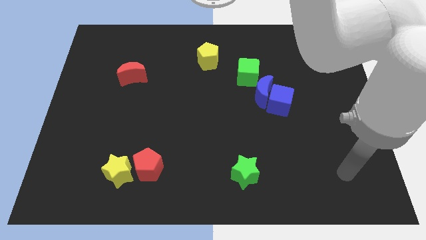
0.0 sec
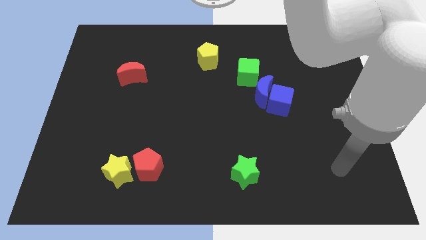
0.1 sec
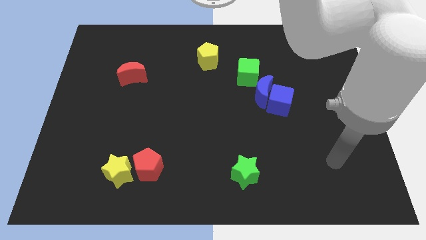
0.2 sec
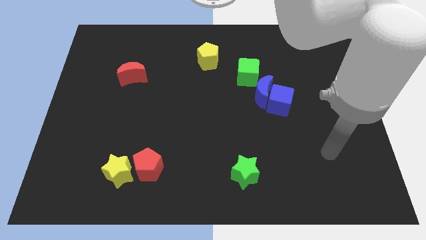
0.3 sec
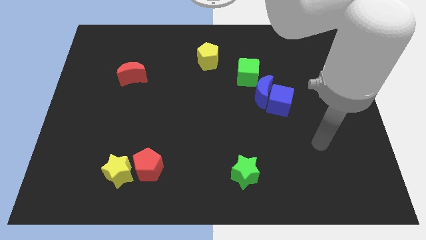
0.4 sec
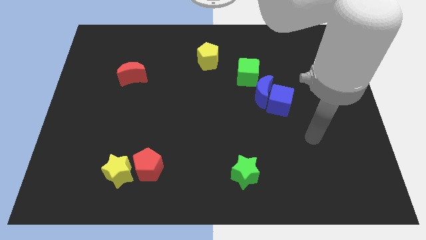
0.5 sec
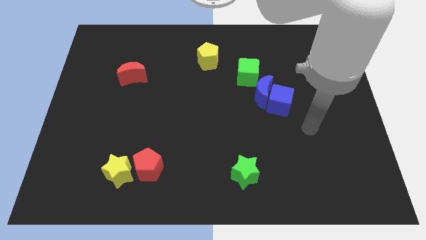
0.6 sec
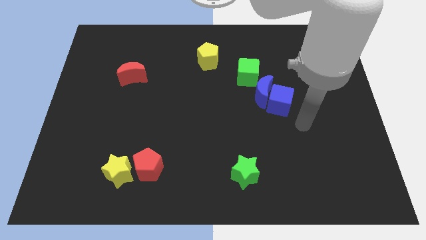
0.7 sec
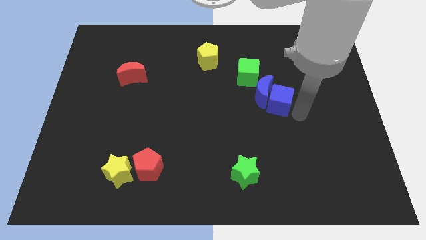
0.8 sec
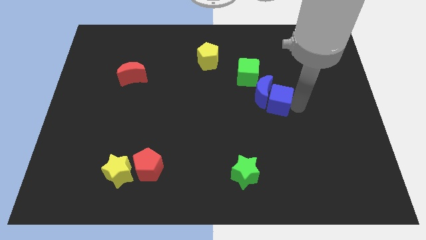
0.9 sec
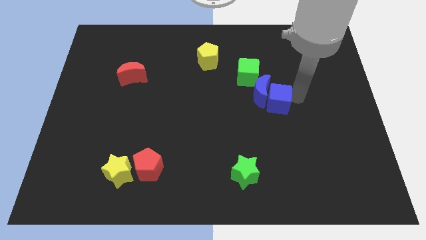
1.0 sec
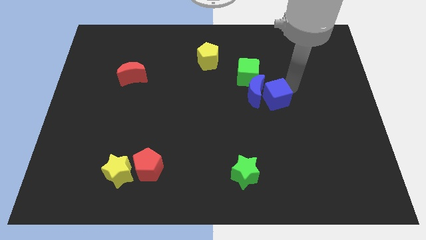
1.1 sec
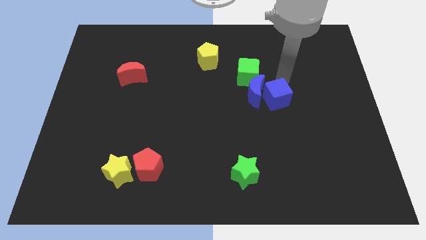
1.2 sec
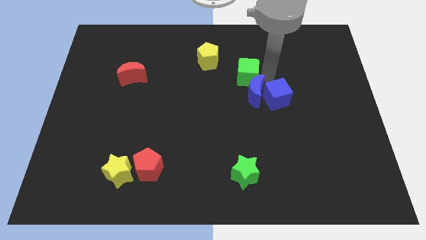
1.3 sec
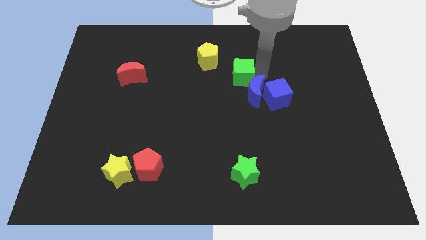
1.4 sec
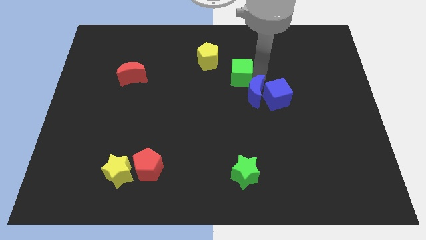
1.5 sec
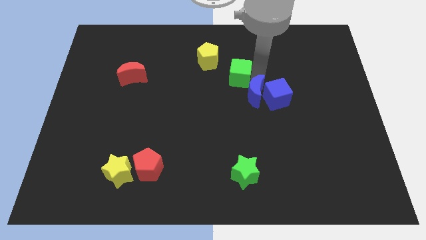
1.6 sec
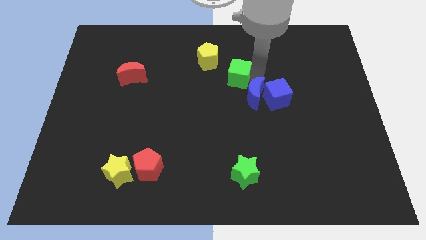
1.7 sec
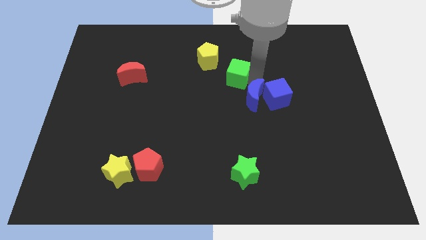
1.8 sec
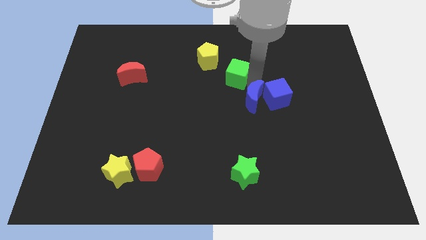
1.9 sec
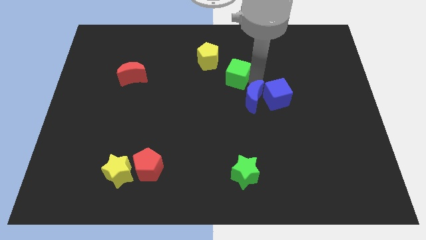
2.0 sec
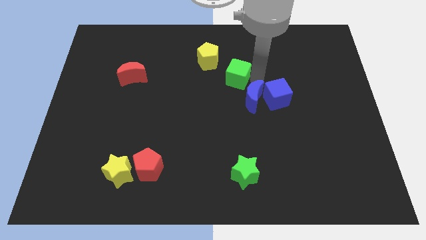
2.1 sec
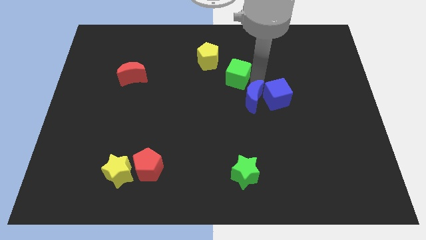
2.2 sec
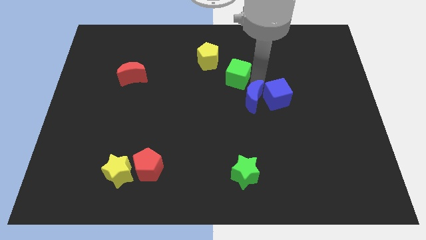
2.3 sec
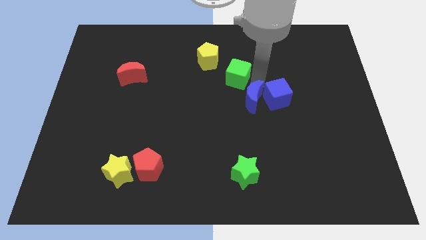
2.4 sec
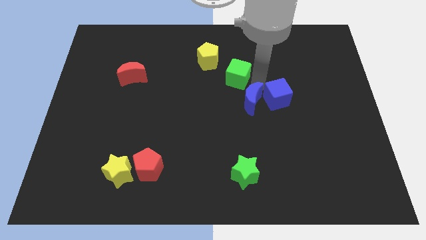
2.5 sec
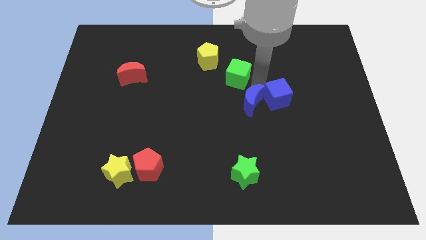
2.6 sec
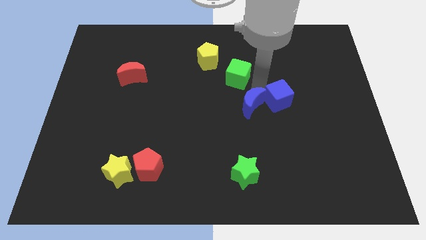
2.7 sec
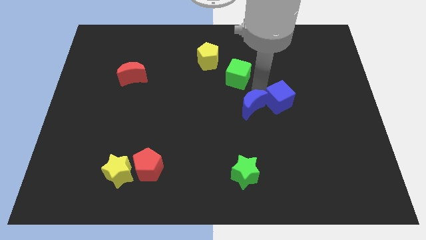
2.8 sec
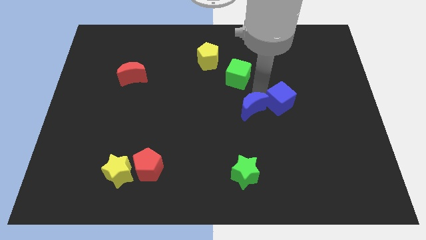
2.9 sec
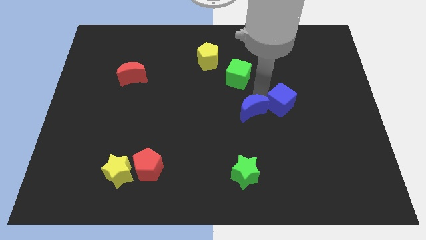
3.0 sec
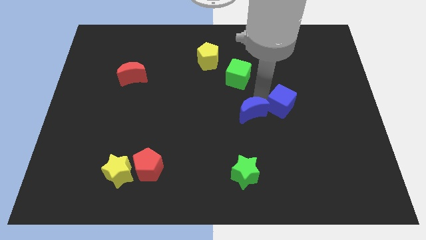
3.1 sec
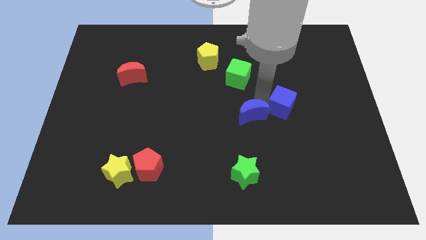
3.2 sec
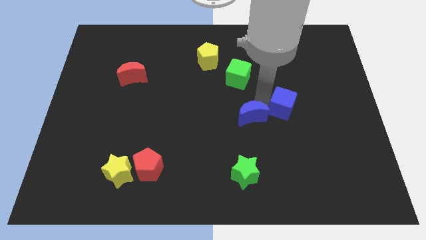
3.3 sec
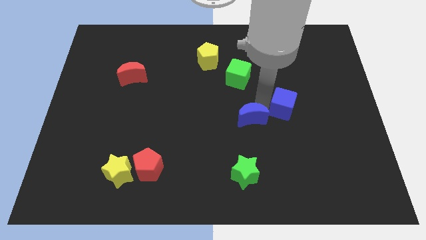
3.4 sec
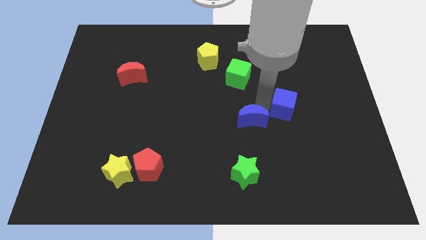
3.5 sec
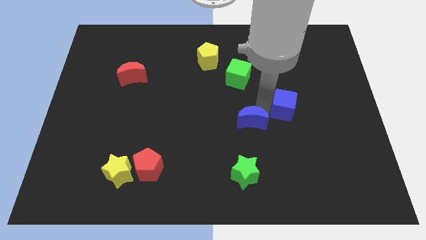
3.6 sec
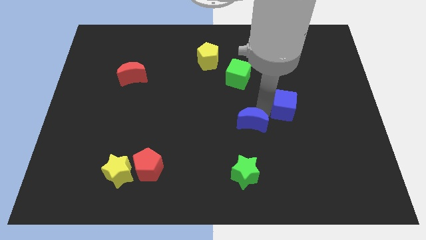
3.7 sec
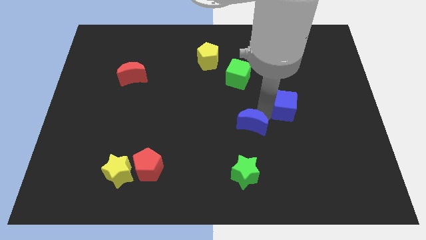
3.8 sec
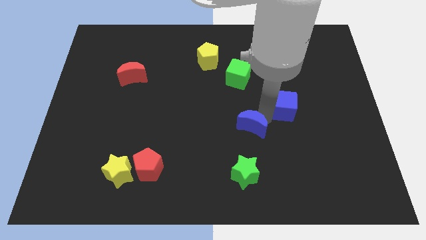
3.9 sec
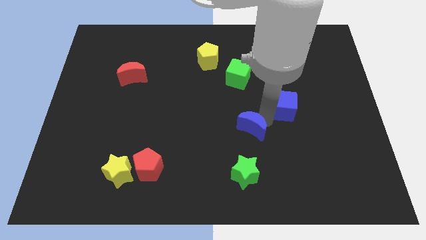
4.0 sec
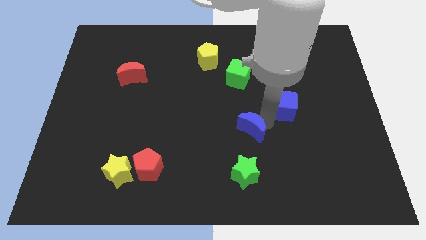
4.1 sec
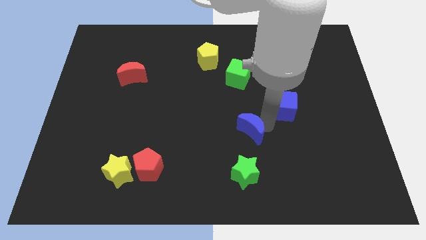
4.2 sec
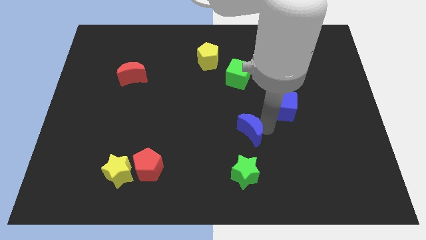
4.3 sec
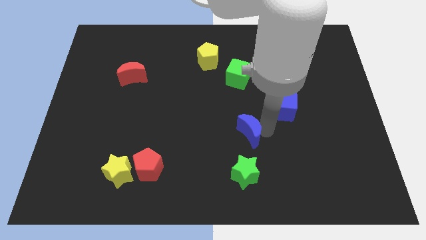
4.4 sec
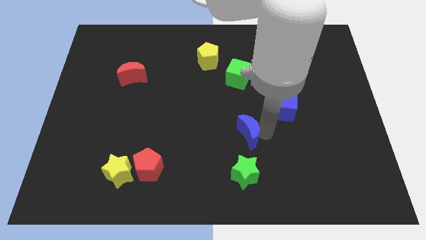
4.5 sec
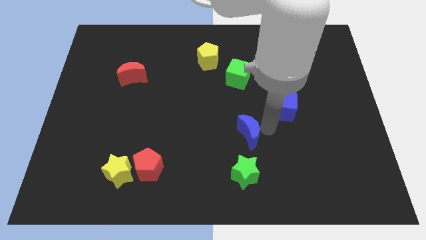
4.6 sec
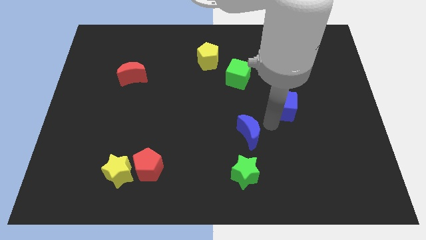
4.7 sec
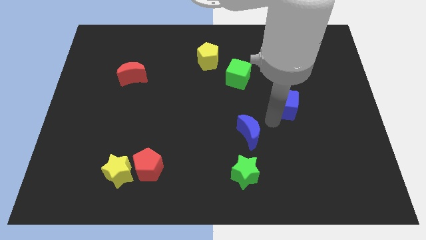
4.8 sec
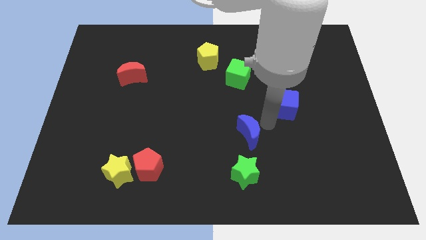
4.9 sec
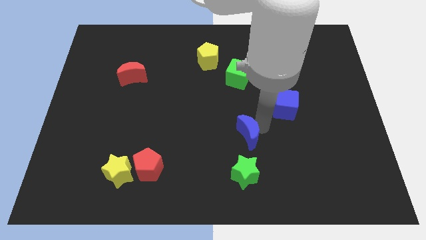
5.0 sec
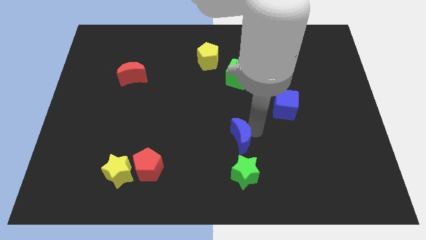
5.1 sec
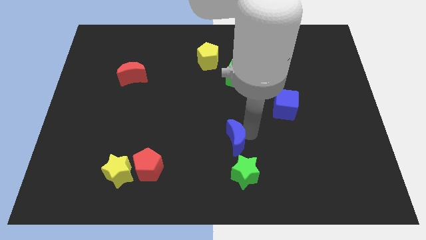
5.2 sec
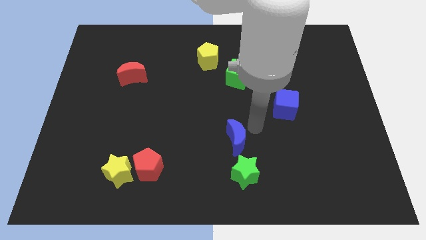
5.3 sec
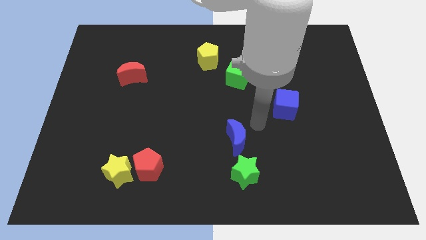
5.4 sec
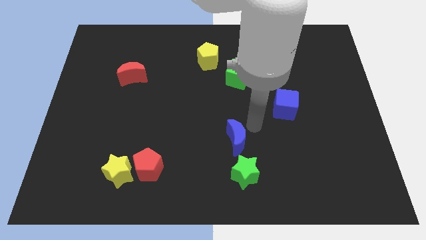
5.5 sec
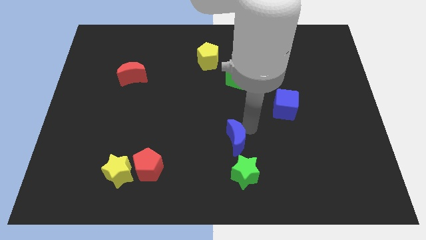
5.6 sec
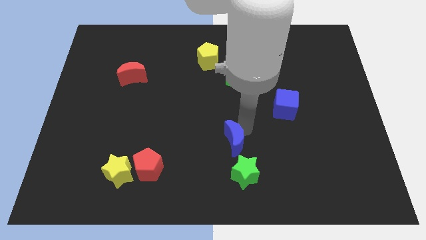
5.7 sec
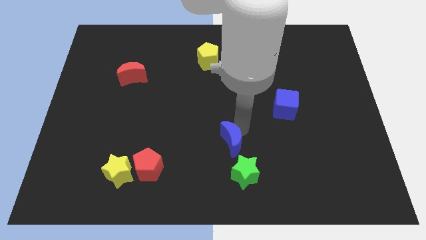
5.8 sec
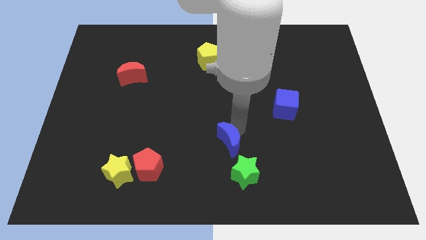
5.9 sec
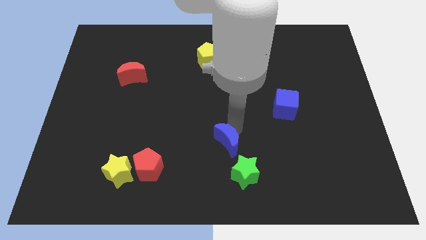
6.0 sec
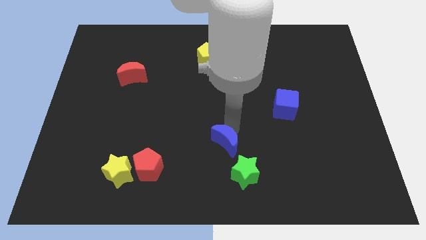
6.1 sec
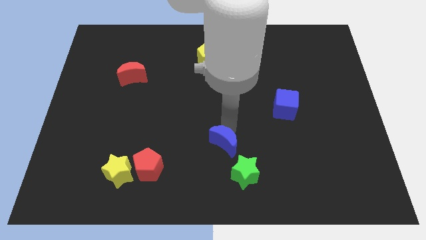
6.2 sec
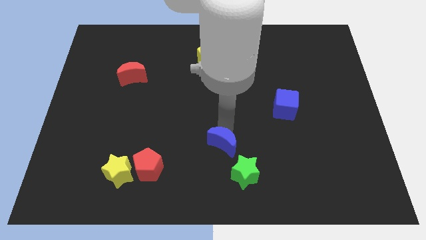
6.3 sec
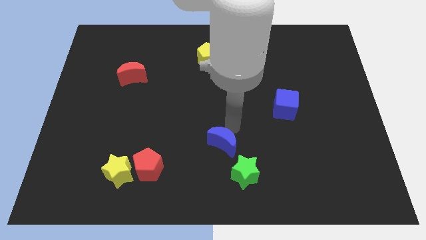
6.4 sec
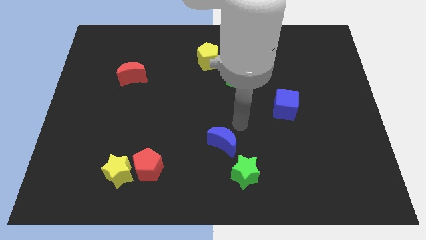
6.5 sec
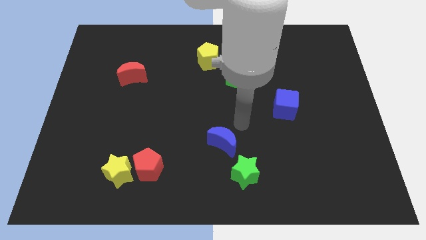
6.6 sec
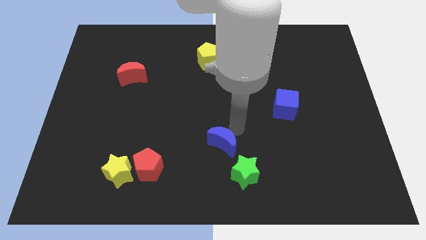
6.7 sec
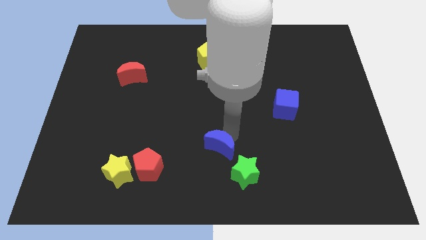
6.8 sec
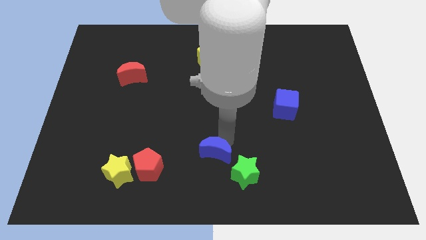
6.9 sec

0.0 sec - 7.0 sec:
put the blue moon right of the red pentagon
